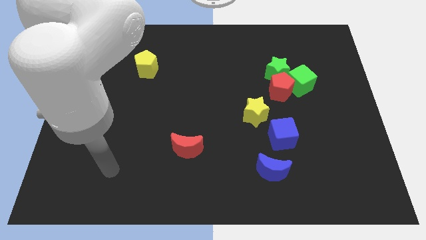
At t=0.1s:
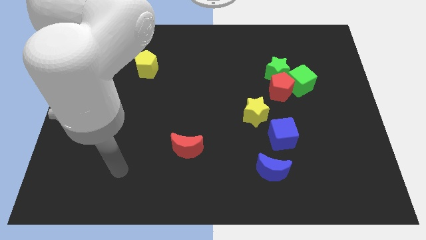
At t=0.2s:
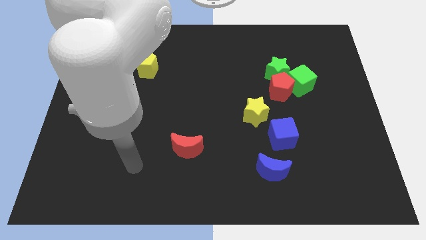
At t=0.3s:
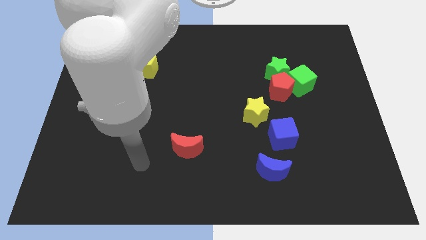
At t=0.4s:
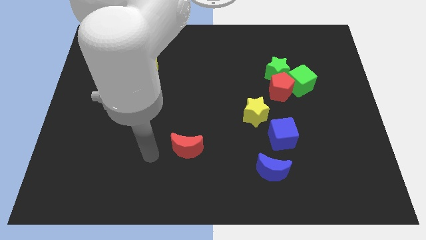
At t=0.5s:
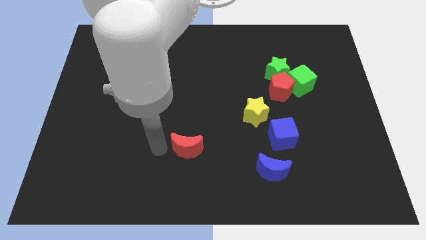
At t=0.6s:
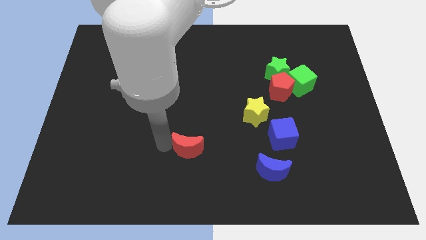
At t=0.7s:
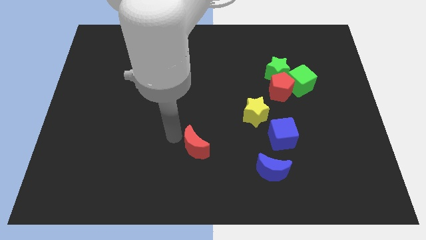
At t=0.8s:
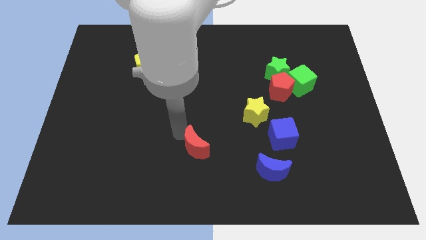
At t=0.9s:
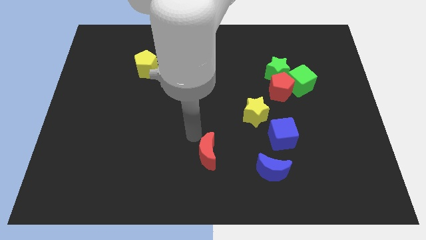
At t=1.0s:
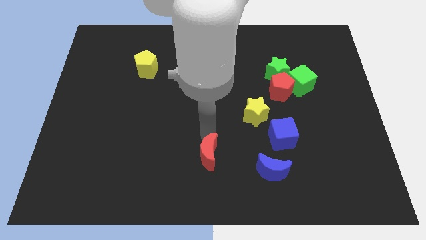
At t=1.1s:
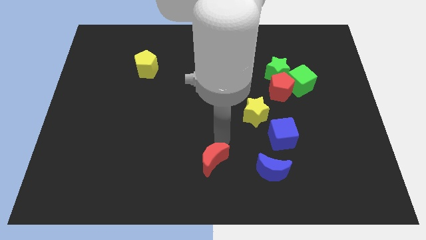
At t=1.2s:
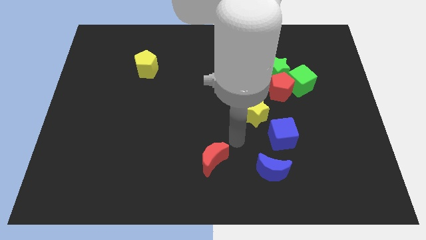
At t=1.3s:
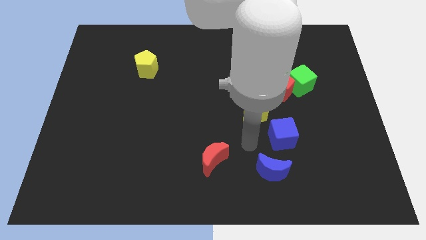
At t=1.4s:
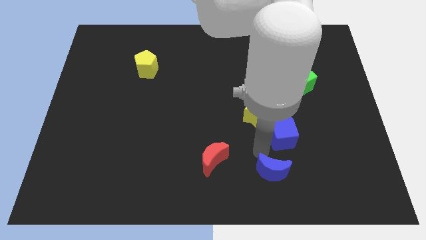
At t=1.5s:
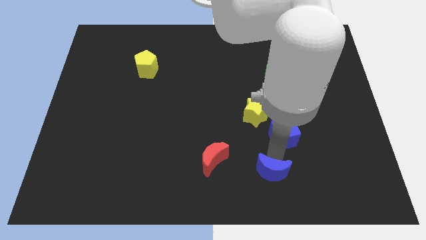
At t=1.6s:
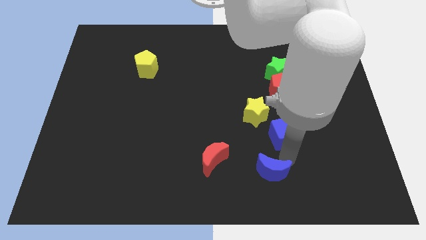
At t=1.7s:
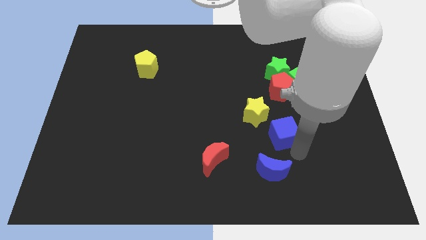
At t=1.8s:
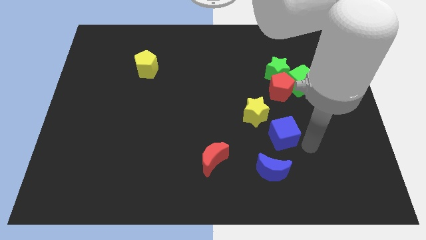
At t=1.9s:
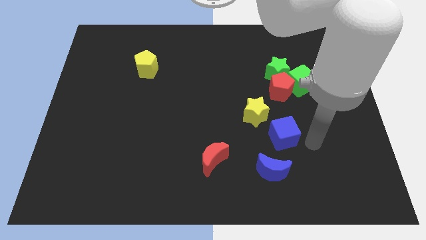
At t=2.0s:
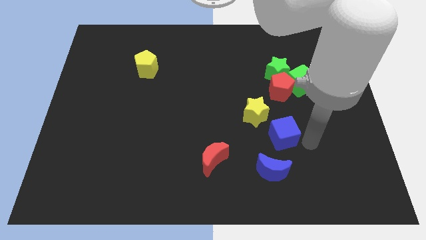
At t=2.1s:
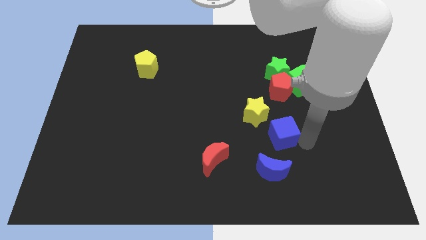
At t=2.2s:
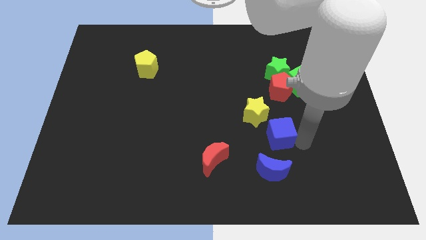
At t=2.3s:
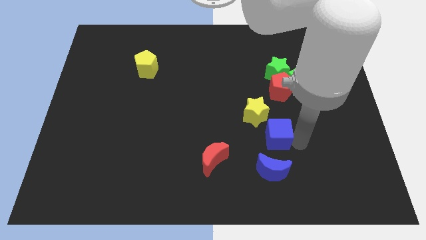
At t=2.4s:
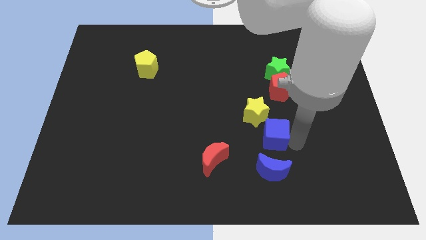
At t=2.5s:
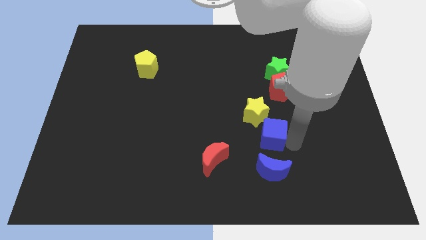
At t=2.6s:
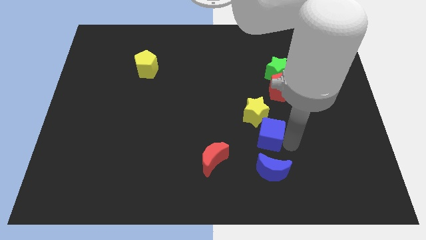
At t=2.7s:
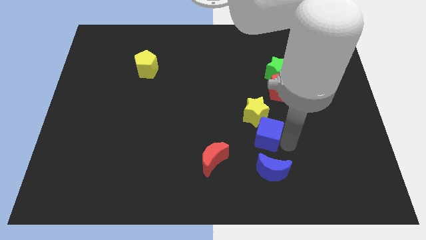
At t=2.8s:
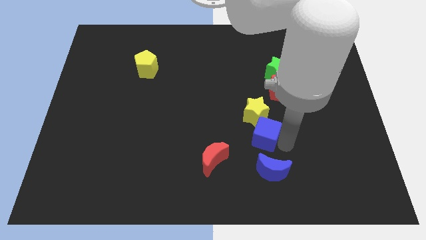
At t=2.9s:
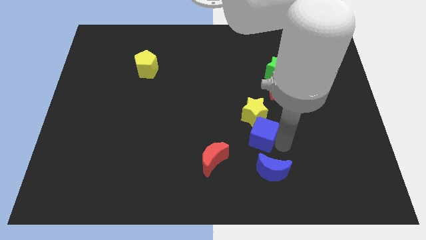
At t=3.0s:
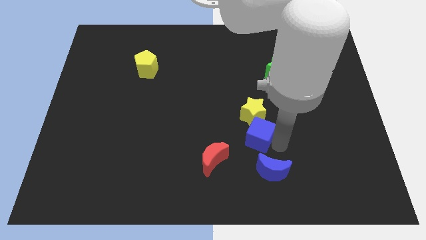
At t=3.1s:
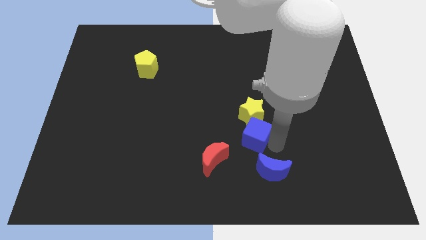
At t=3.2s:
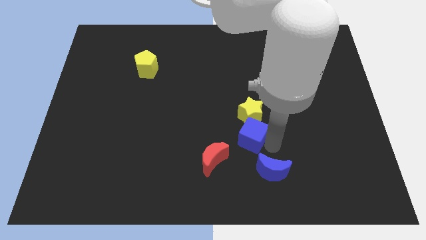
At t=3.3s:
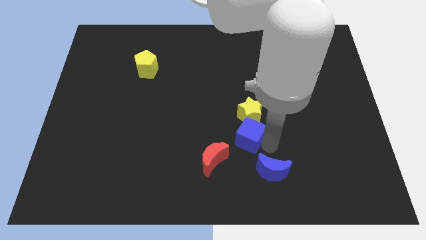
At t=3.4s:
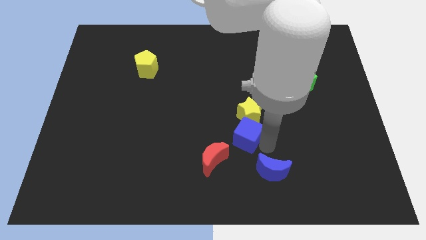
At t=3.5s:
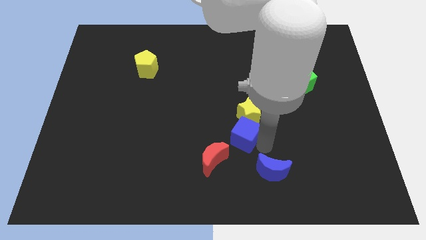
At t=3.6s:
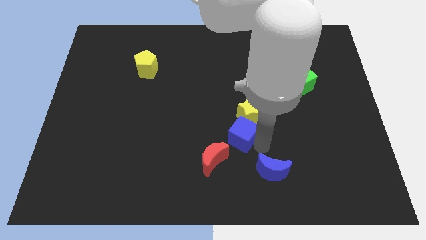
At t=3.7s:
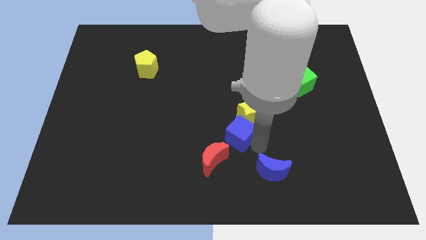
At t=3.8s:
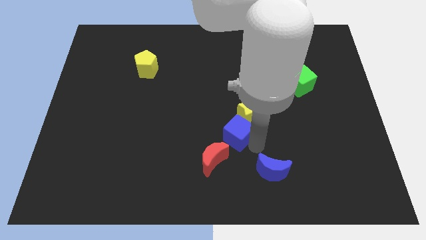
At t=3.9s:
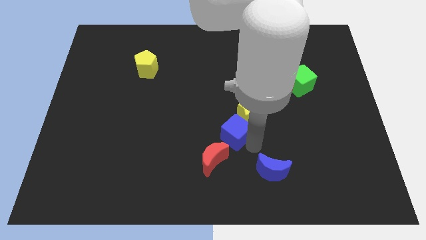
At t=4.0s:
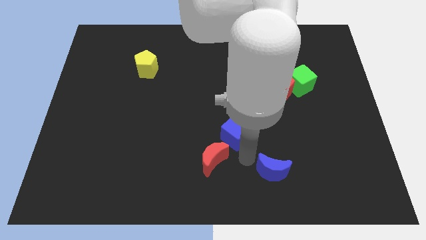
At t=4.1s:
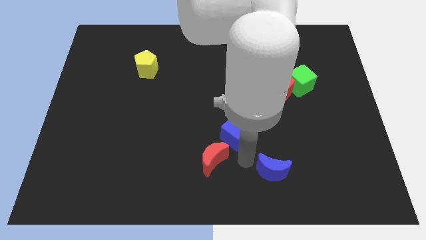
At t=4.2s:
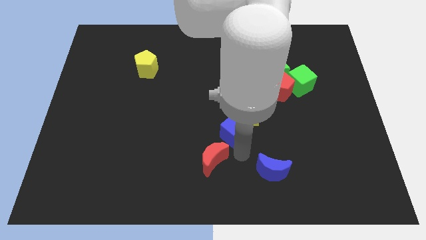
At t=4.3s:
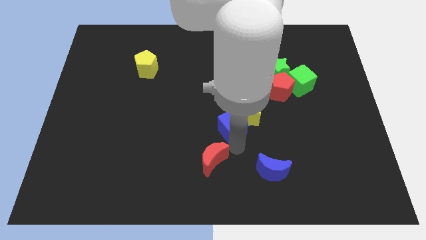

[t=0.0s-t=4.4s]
slide the blue cube diagonally up and left slightly

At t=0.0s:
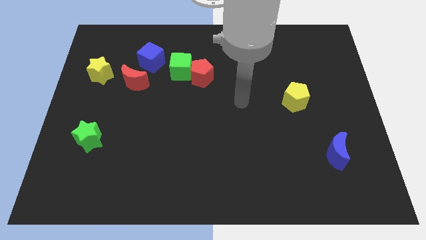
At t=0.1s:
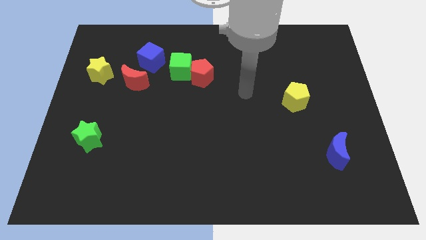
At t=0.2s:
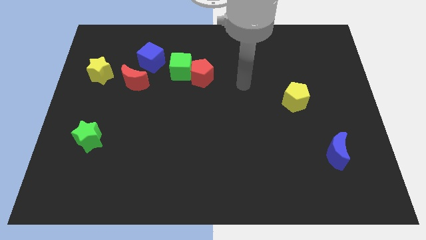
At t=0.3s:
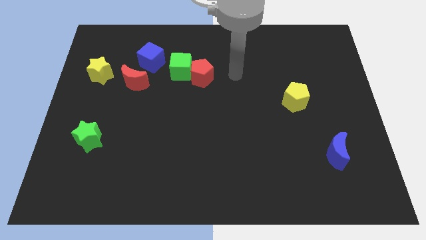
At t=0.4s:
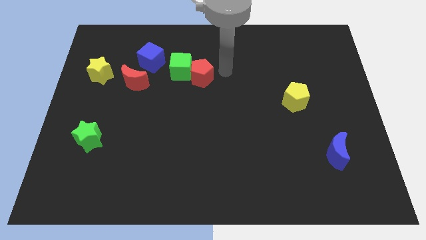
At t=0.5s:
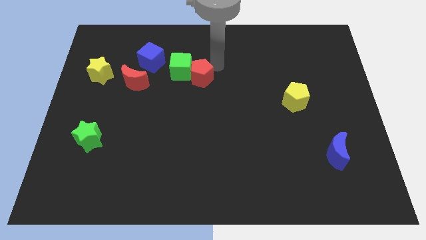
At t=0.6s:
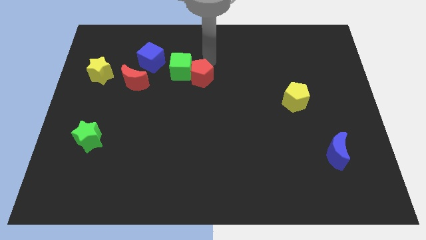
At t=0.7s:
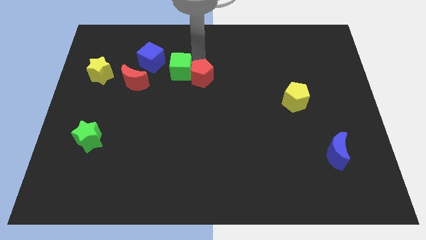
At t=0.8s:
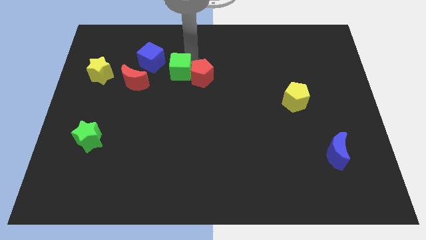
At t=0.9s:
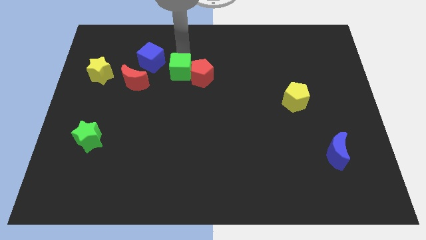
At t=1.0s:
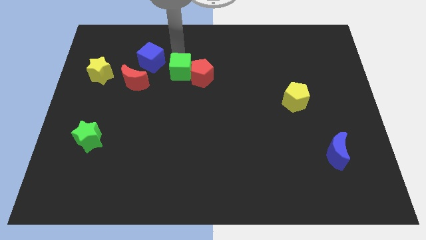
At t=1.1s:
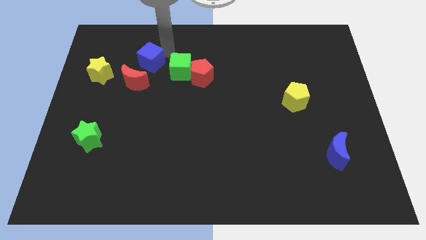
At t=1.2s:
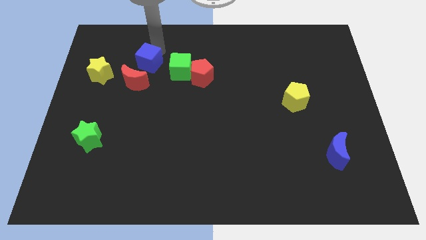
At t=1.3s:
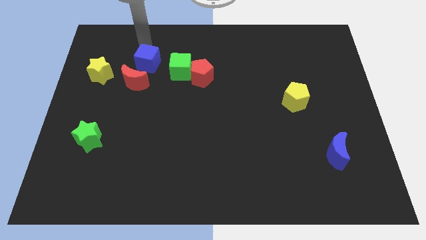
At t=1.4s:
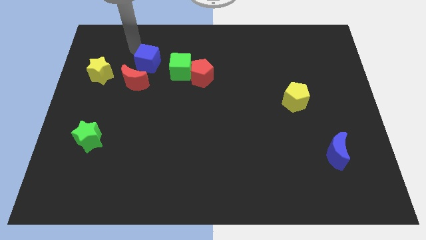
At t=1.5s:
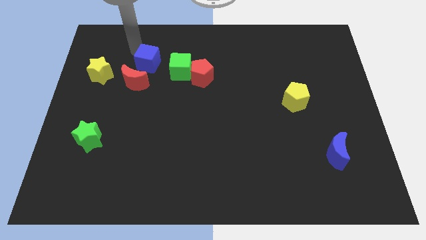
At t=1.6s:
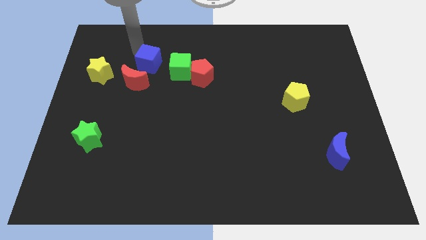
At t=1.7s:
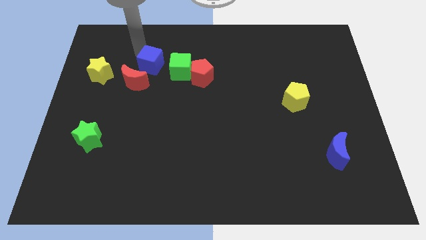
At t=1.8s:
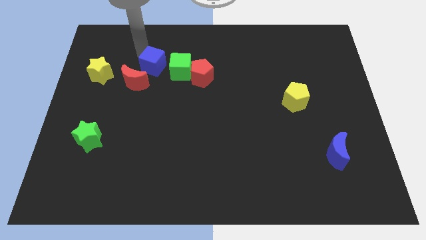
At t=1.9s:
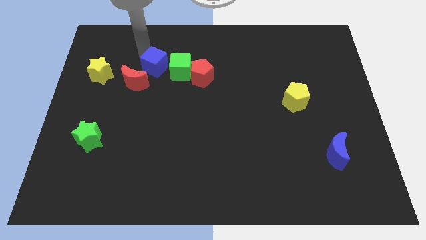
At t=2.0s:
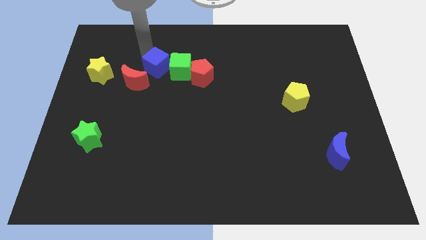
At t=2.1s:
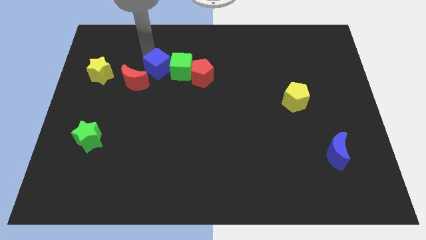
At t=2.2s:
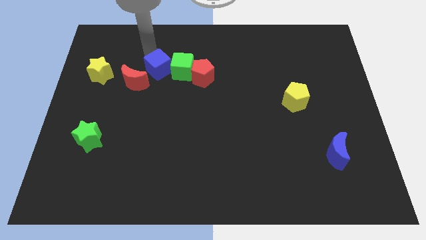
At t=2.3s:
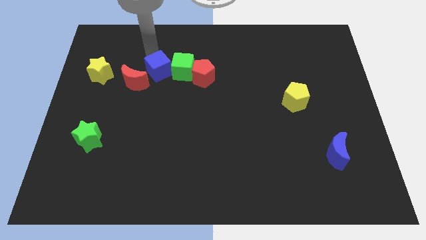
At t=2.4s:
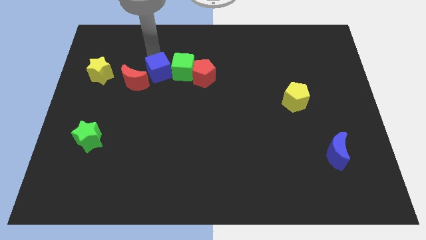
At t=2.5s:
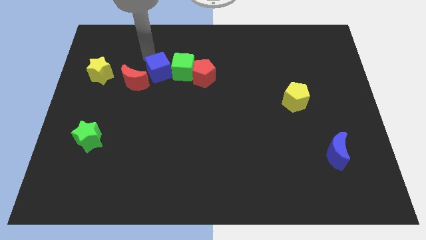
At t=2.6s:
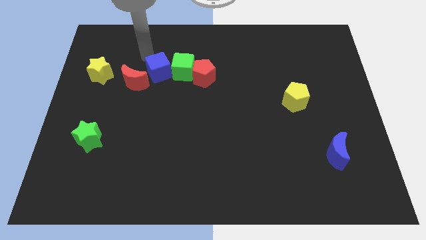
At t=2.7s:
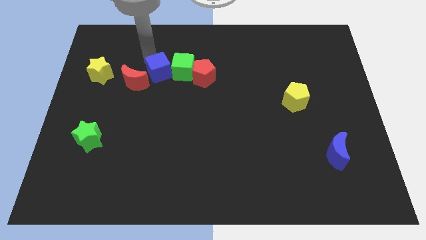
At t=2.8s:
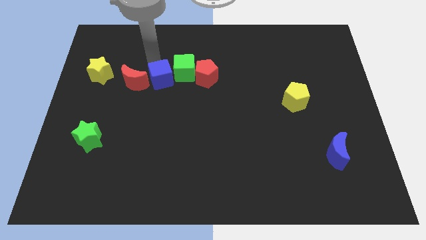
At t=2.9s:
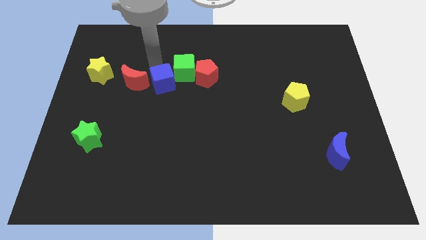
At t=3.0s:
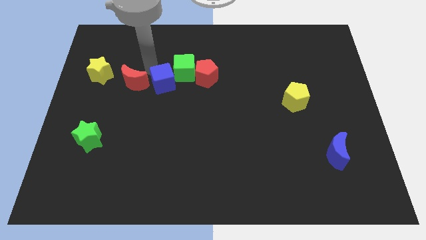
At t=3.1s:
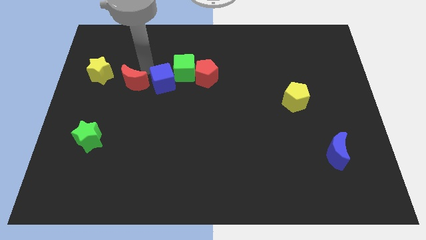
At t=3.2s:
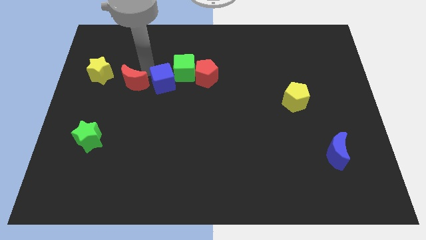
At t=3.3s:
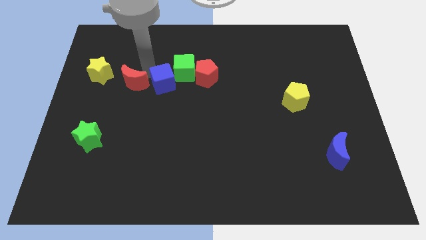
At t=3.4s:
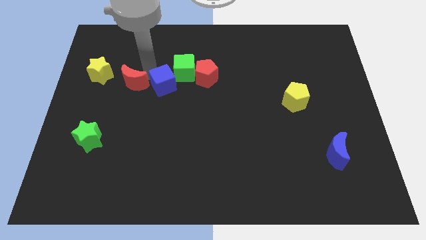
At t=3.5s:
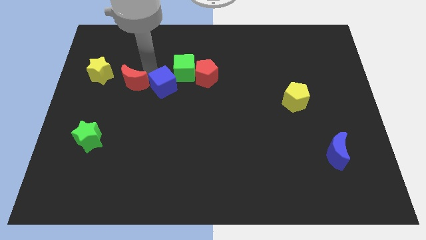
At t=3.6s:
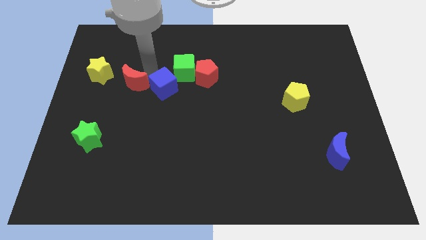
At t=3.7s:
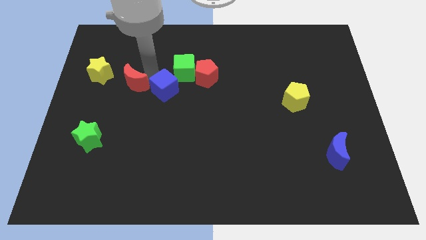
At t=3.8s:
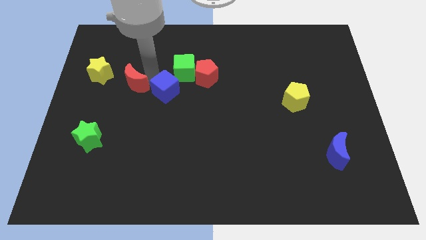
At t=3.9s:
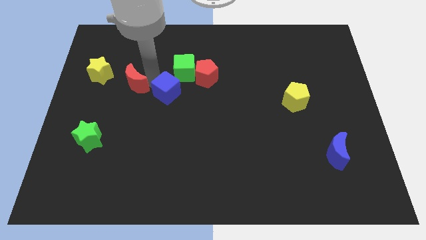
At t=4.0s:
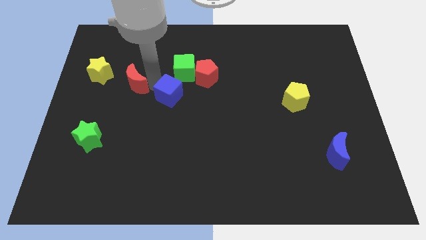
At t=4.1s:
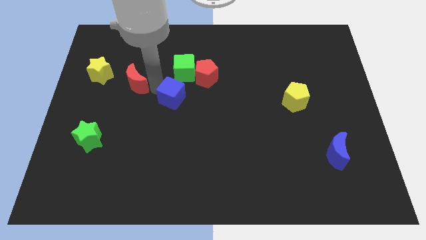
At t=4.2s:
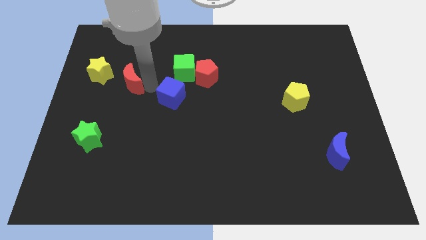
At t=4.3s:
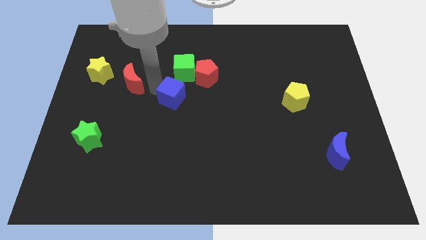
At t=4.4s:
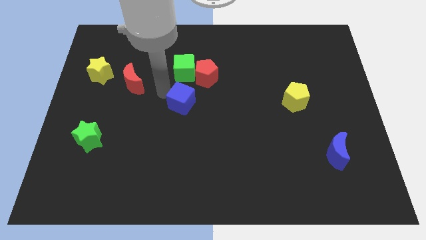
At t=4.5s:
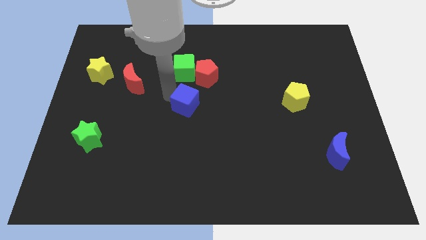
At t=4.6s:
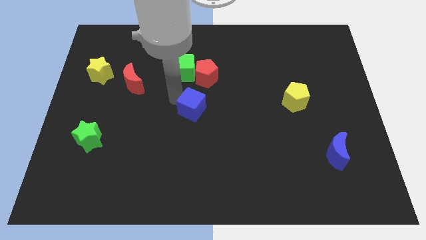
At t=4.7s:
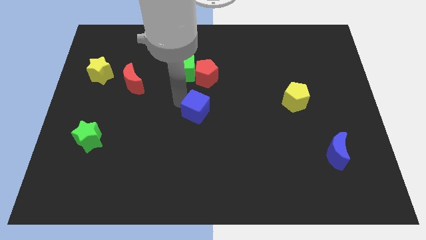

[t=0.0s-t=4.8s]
slide the blue cube down and to the right
